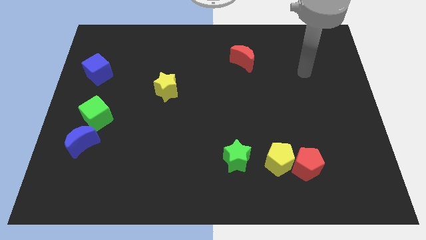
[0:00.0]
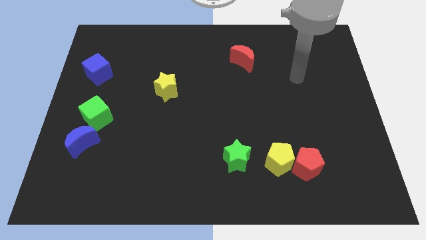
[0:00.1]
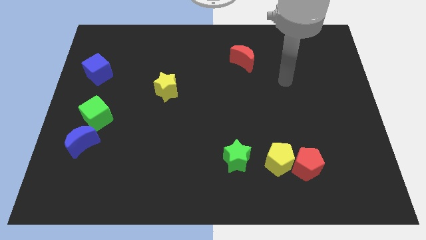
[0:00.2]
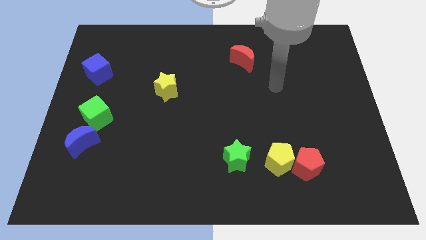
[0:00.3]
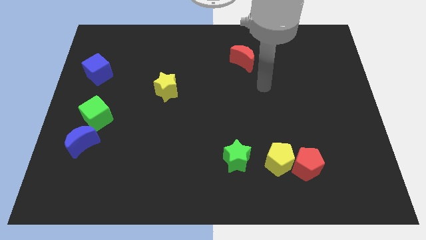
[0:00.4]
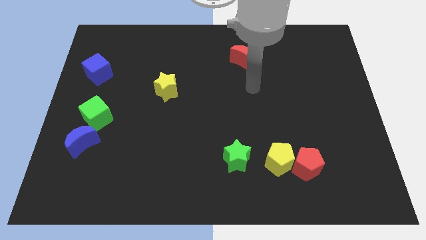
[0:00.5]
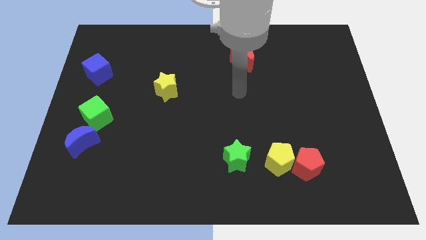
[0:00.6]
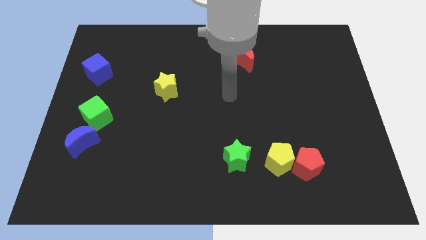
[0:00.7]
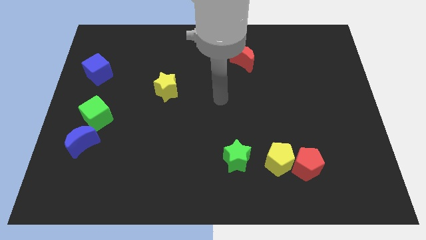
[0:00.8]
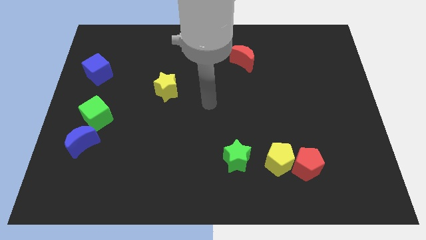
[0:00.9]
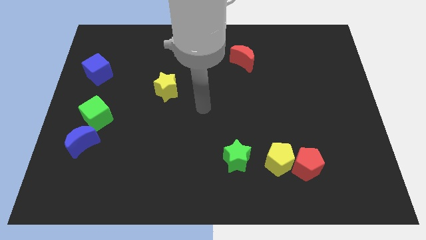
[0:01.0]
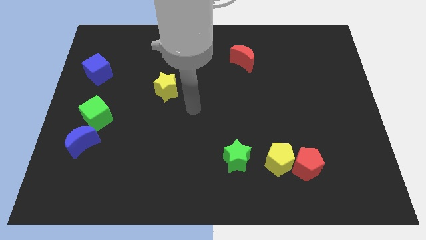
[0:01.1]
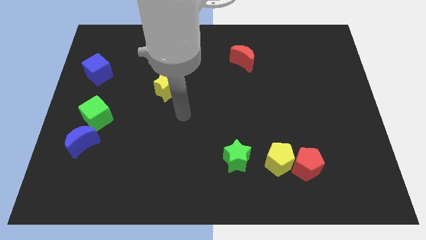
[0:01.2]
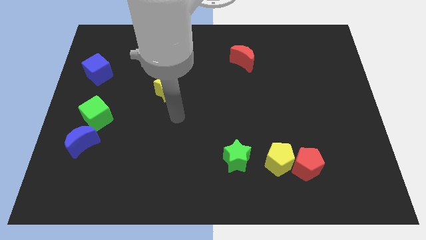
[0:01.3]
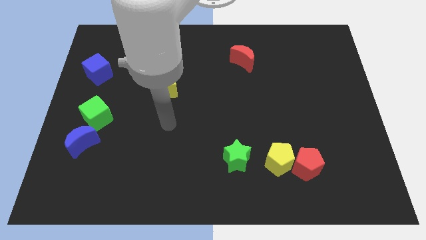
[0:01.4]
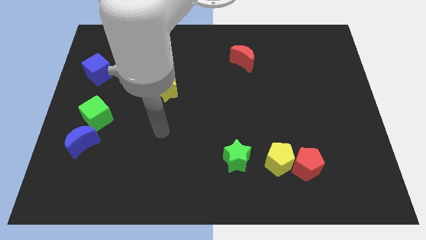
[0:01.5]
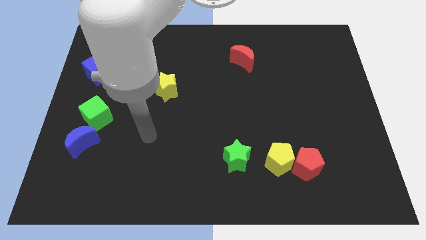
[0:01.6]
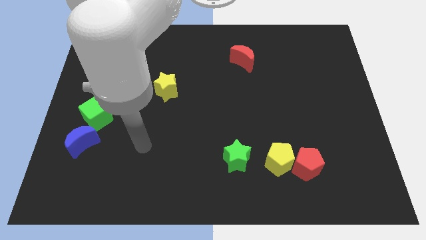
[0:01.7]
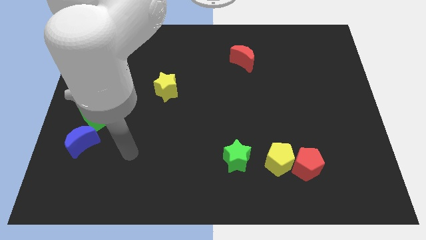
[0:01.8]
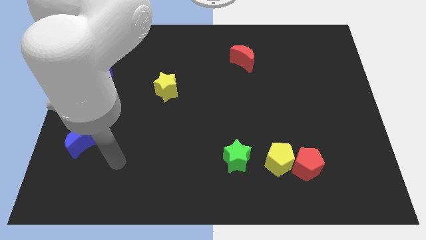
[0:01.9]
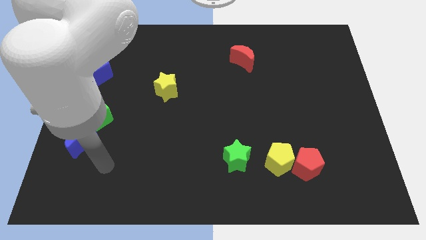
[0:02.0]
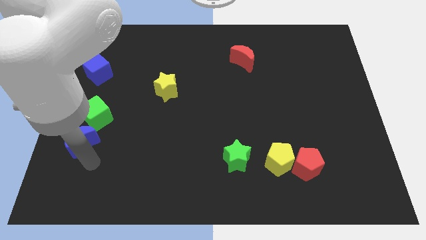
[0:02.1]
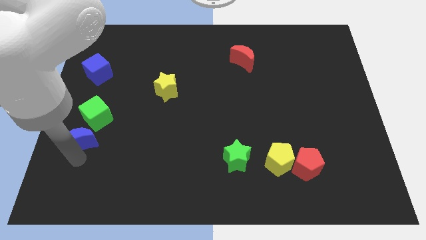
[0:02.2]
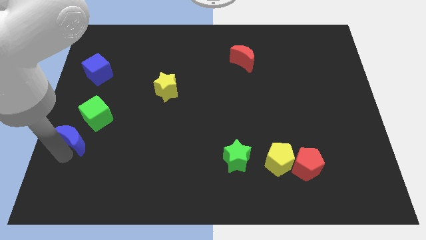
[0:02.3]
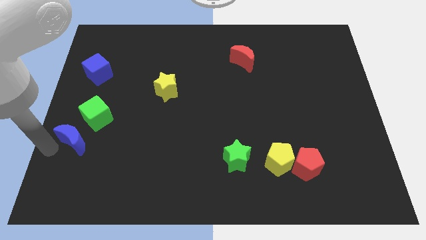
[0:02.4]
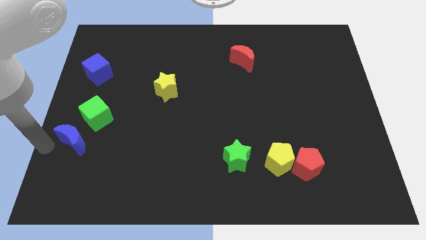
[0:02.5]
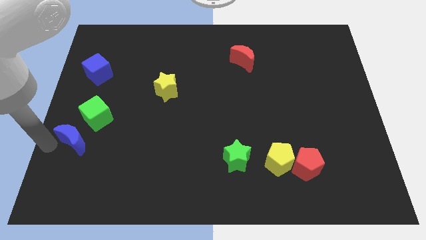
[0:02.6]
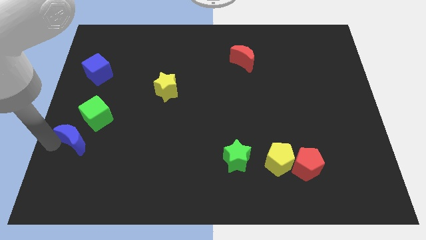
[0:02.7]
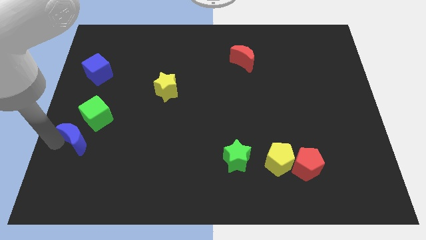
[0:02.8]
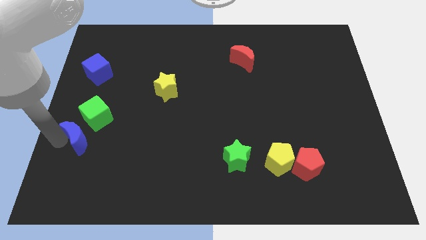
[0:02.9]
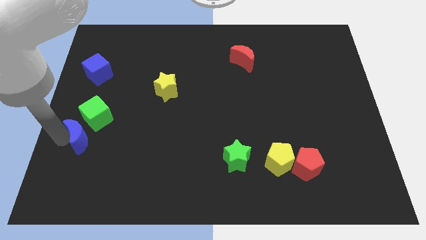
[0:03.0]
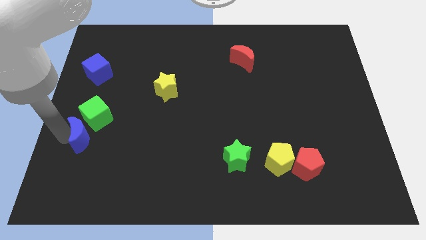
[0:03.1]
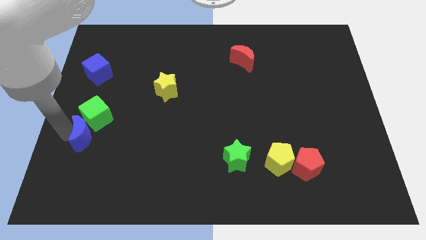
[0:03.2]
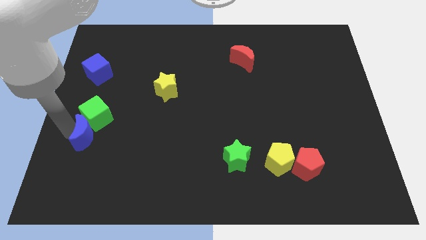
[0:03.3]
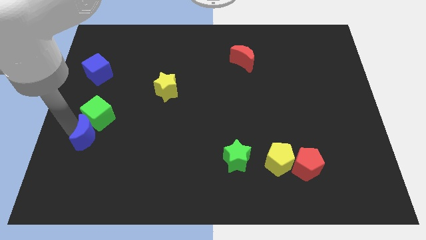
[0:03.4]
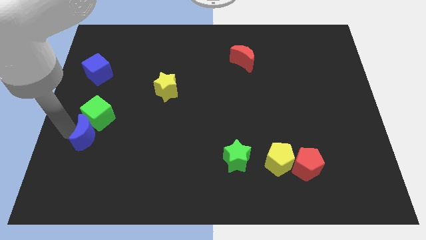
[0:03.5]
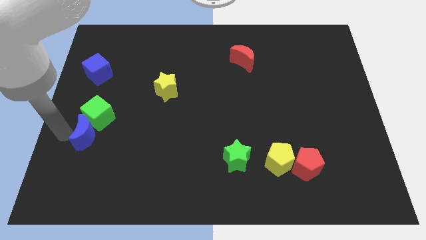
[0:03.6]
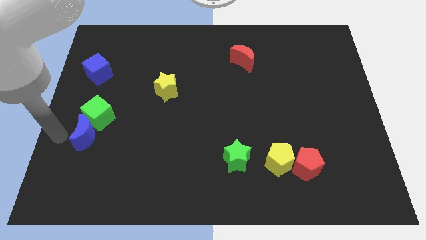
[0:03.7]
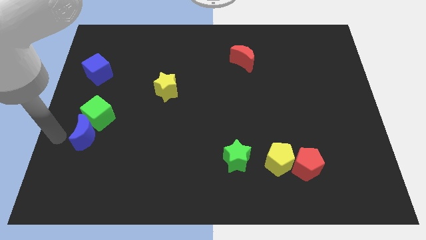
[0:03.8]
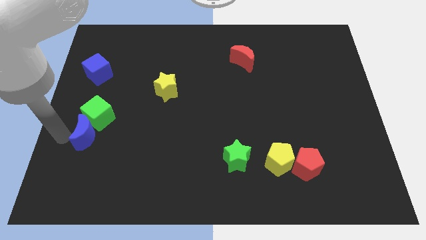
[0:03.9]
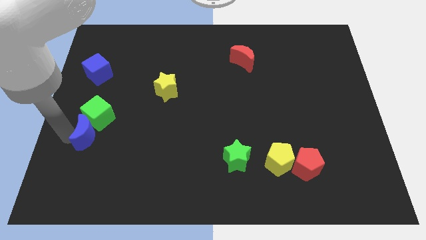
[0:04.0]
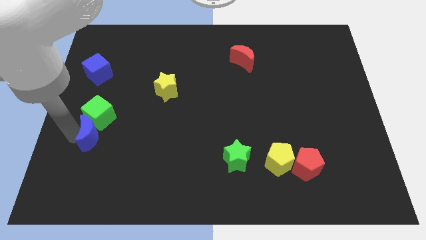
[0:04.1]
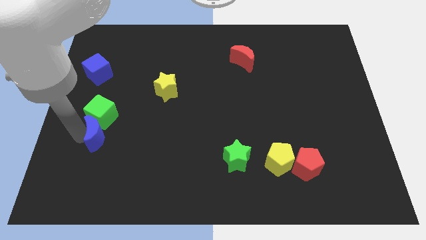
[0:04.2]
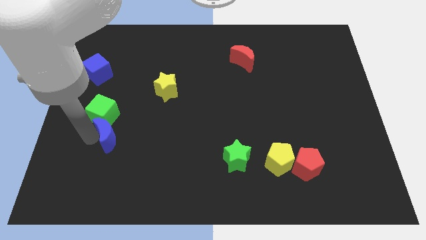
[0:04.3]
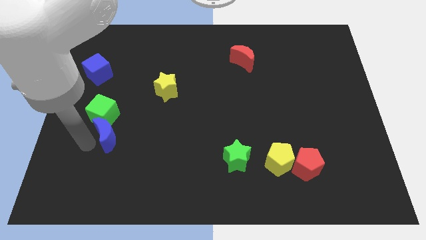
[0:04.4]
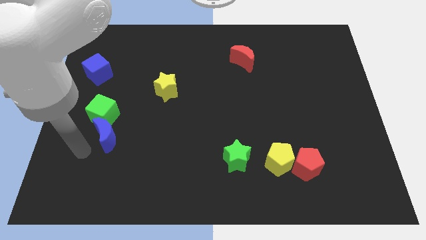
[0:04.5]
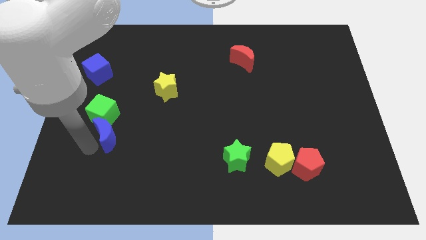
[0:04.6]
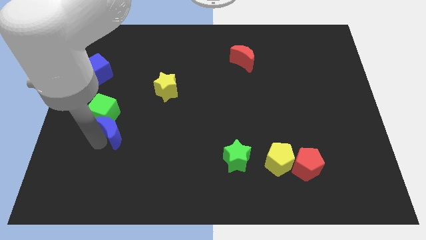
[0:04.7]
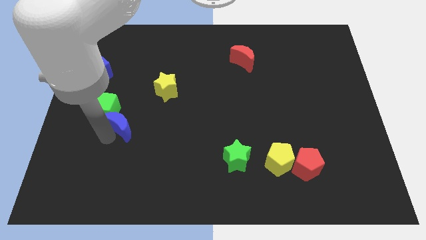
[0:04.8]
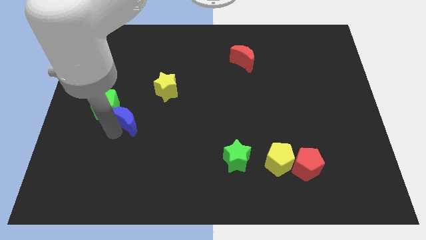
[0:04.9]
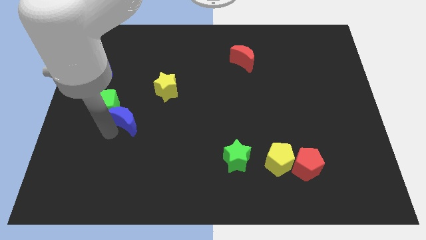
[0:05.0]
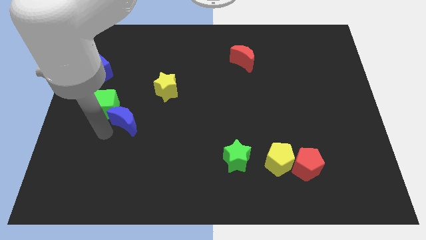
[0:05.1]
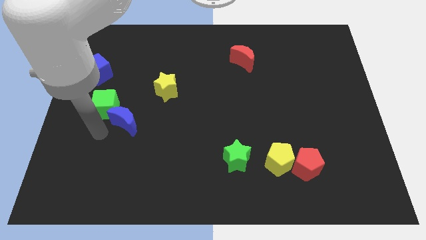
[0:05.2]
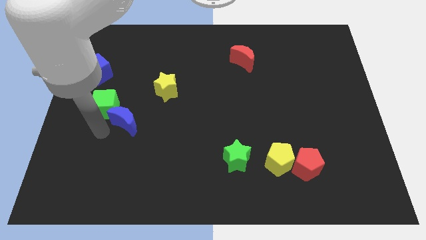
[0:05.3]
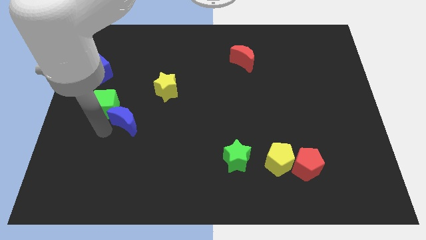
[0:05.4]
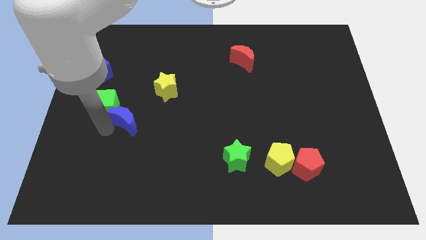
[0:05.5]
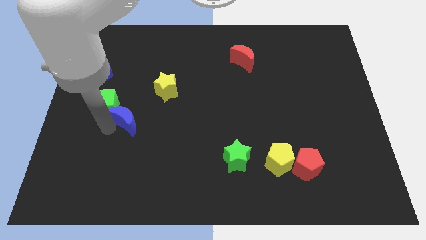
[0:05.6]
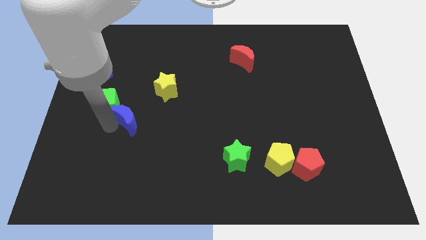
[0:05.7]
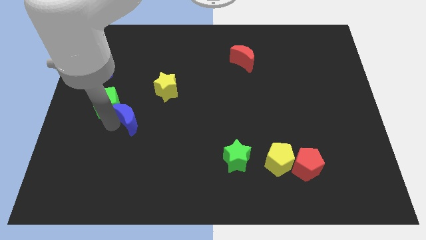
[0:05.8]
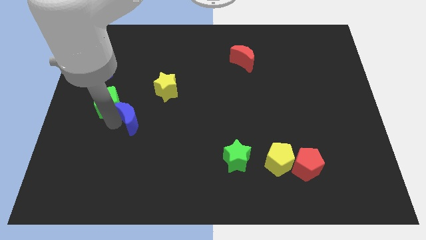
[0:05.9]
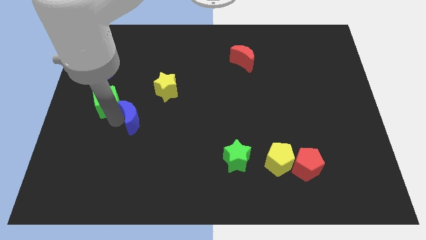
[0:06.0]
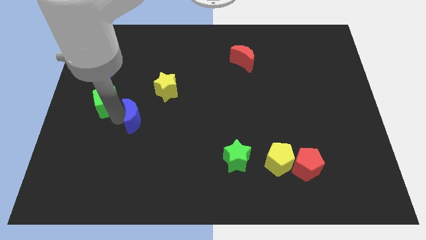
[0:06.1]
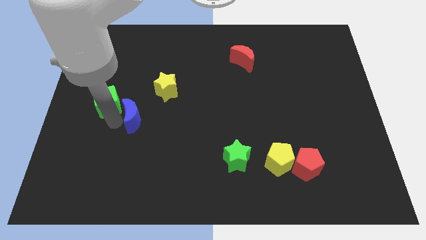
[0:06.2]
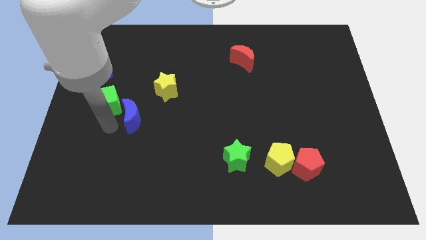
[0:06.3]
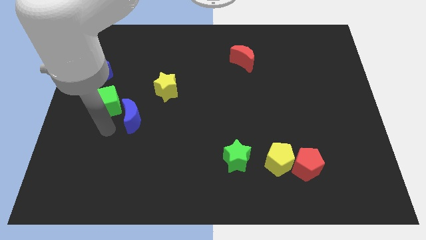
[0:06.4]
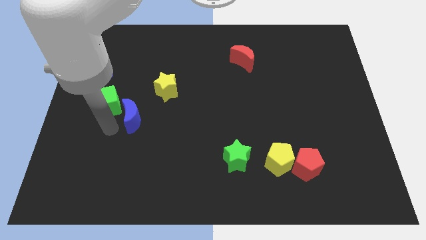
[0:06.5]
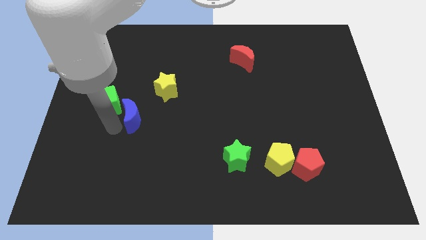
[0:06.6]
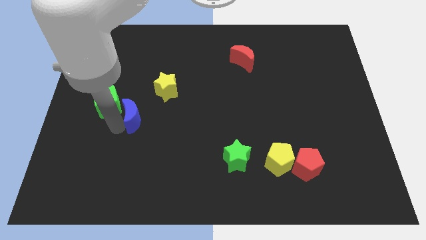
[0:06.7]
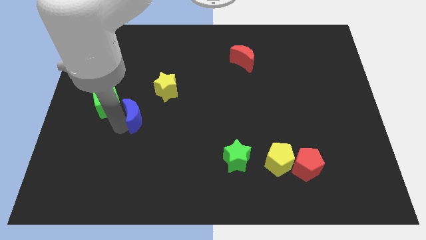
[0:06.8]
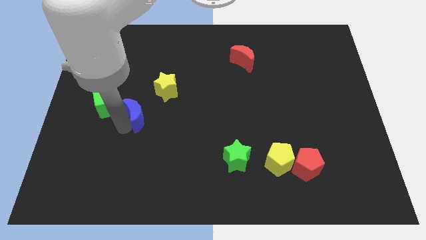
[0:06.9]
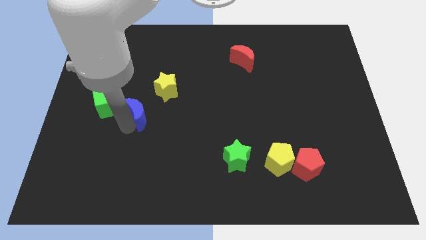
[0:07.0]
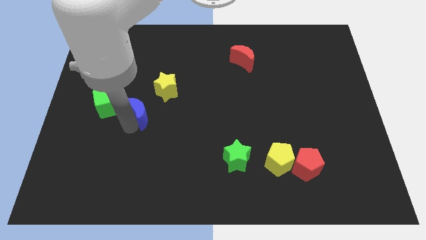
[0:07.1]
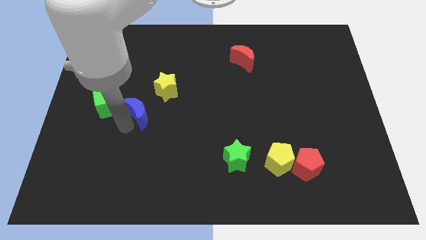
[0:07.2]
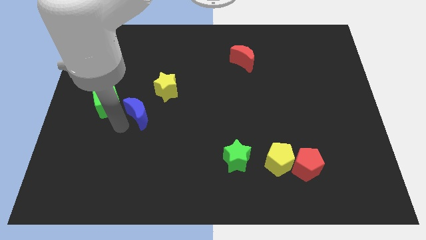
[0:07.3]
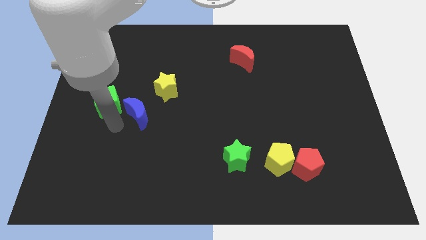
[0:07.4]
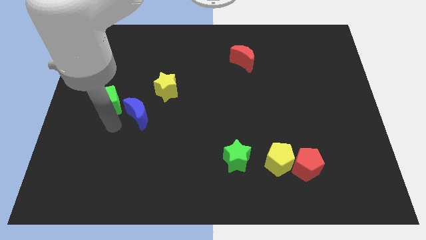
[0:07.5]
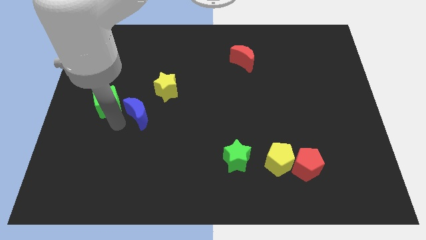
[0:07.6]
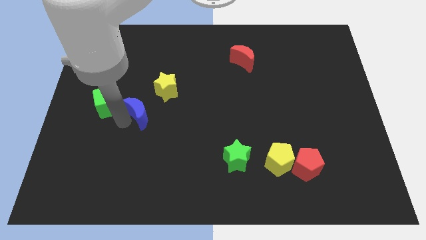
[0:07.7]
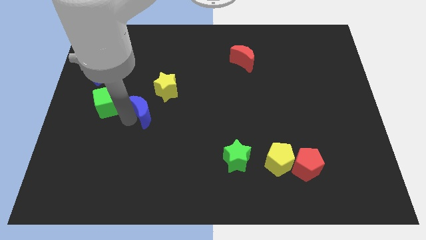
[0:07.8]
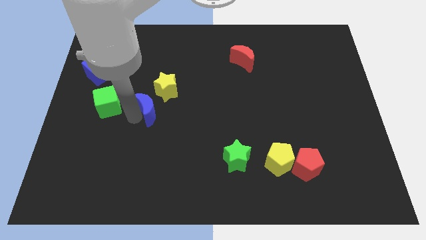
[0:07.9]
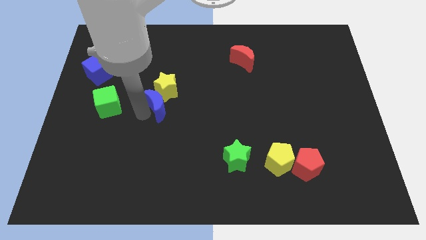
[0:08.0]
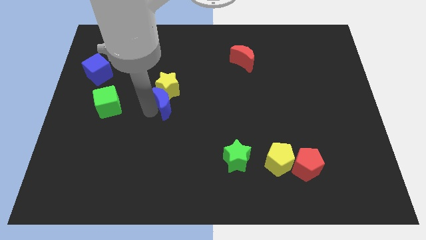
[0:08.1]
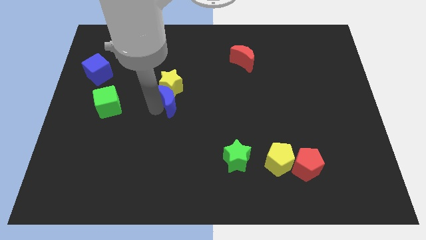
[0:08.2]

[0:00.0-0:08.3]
move the blue moon up and to the right
